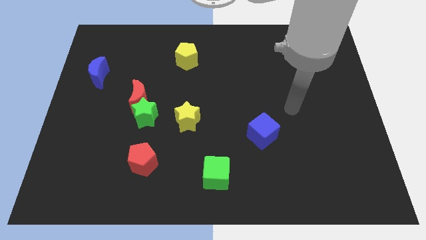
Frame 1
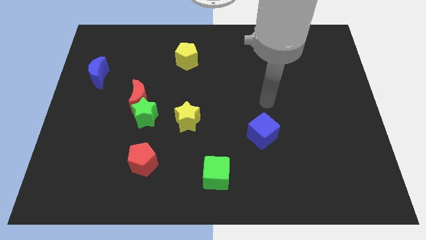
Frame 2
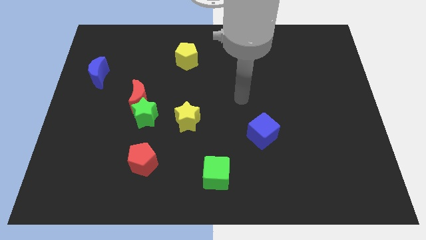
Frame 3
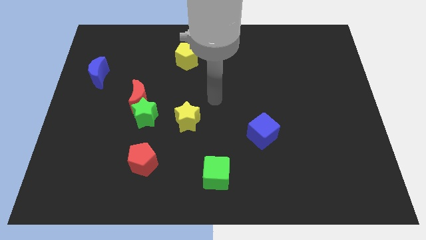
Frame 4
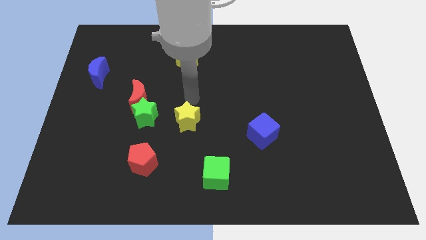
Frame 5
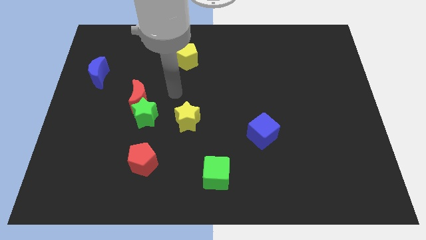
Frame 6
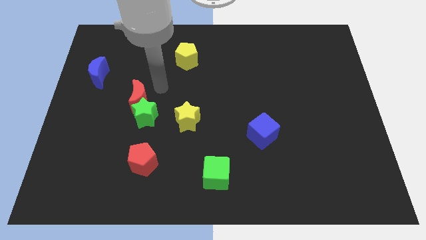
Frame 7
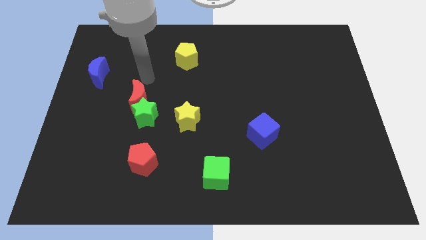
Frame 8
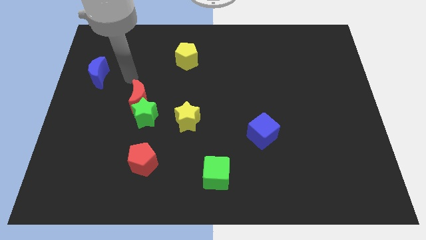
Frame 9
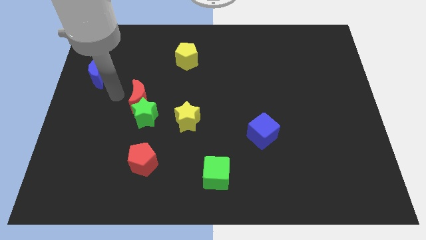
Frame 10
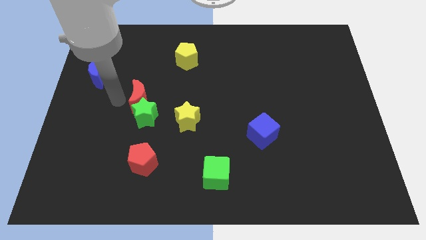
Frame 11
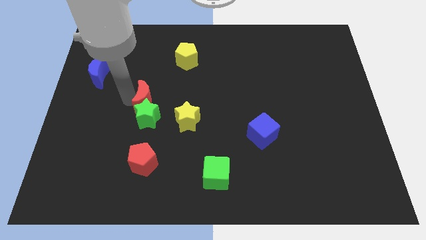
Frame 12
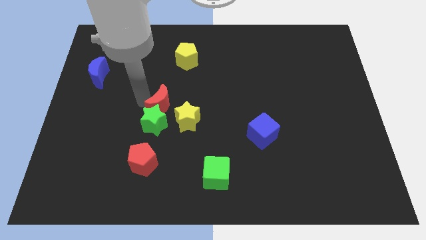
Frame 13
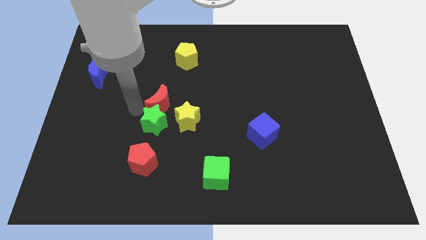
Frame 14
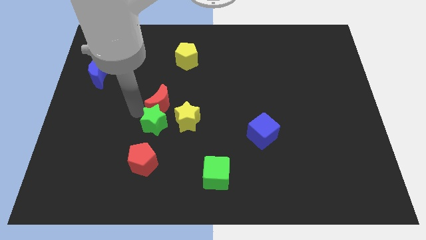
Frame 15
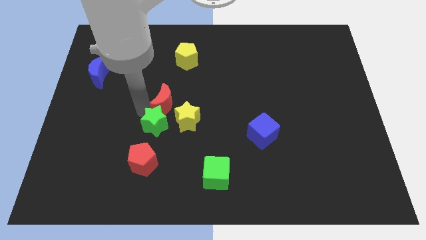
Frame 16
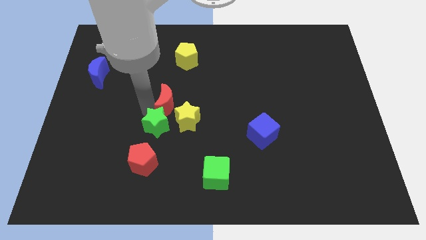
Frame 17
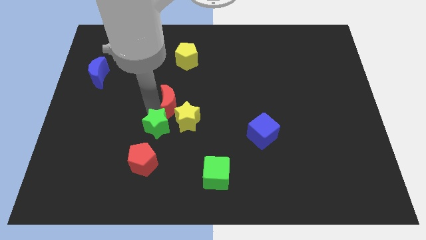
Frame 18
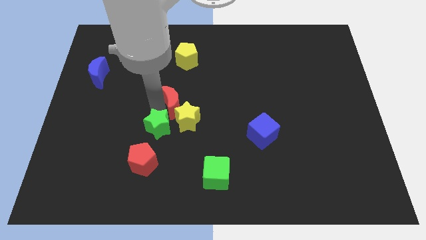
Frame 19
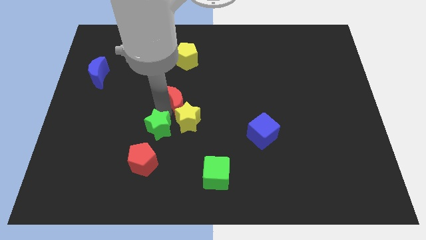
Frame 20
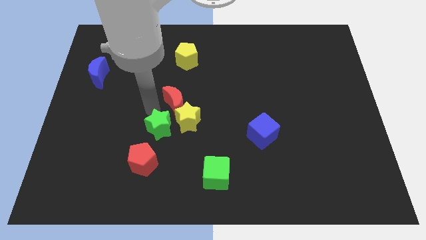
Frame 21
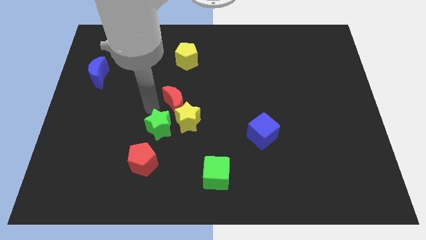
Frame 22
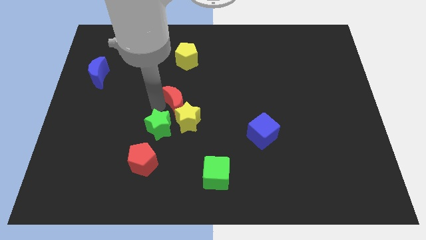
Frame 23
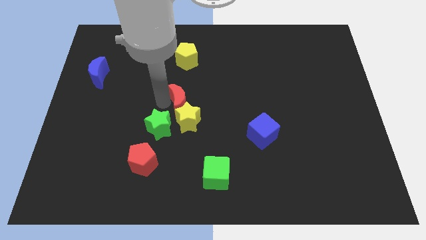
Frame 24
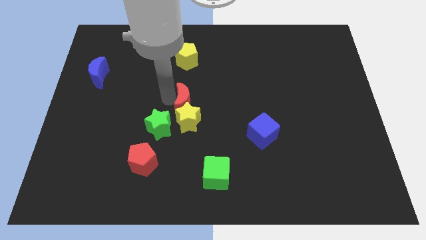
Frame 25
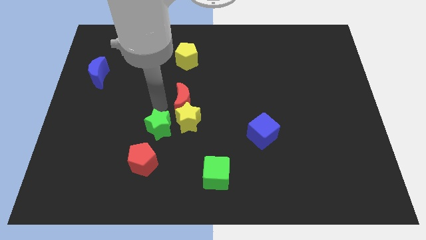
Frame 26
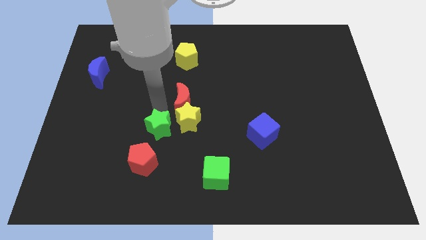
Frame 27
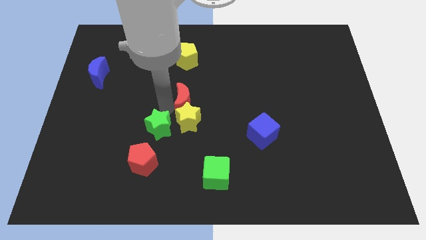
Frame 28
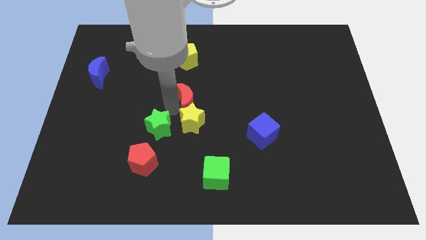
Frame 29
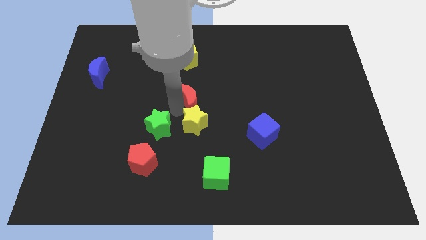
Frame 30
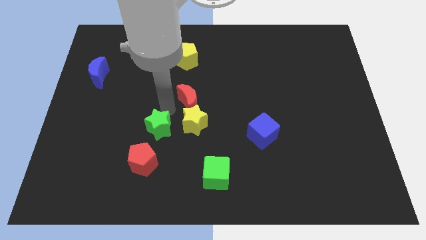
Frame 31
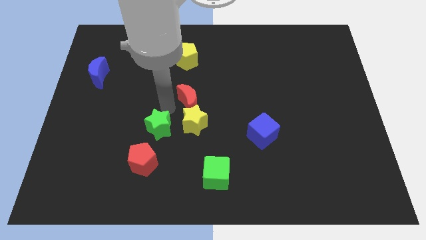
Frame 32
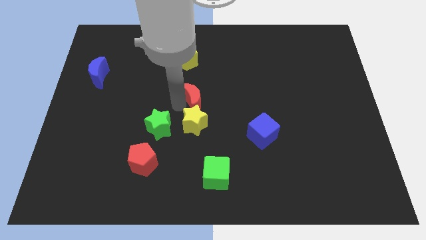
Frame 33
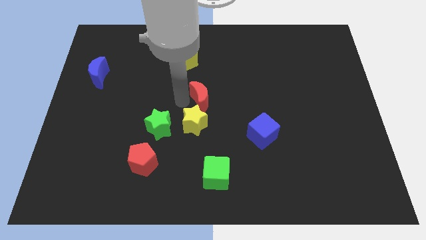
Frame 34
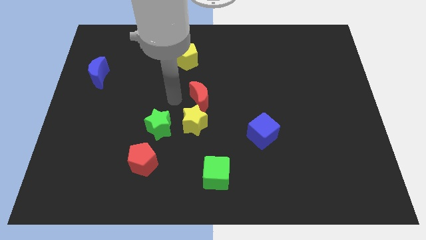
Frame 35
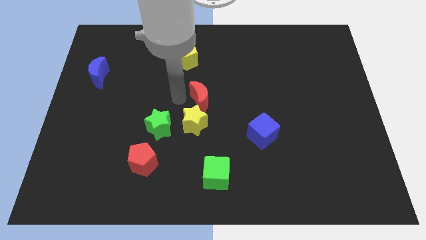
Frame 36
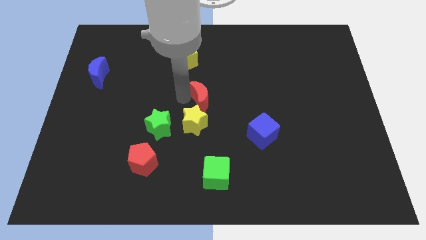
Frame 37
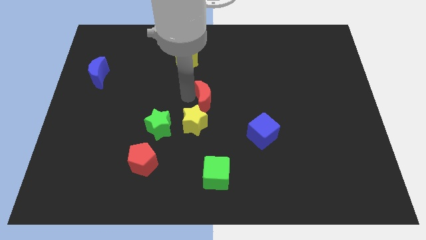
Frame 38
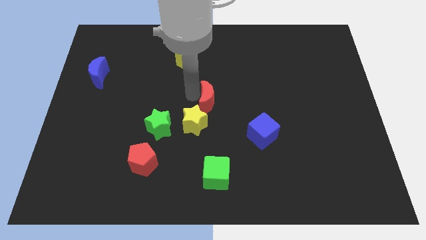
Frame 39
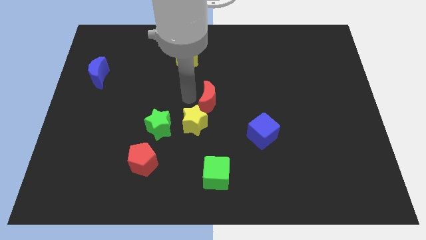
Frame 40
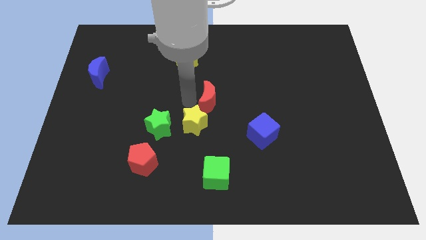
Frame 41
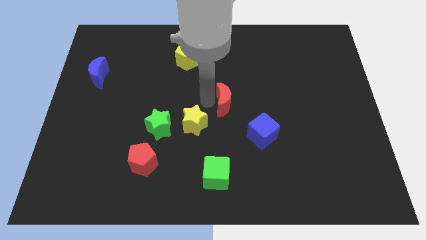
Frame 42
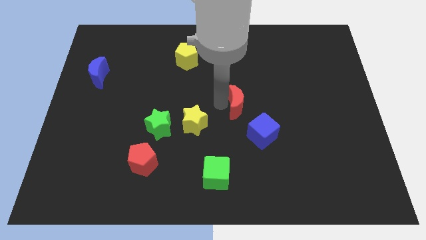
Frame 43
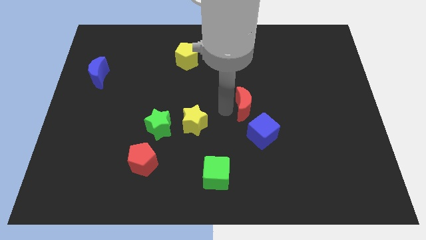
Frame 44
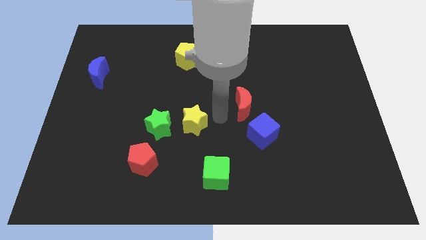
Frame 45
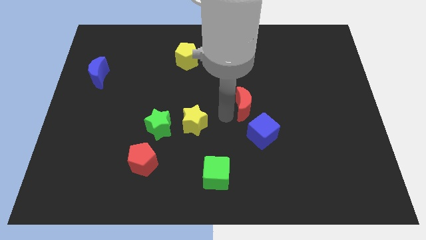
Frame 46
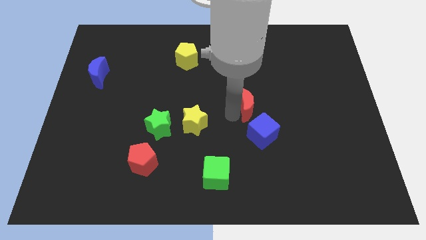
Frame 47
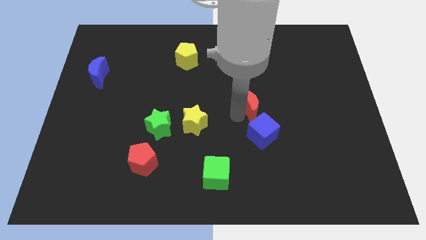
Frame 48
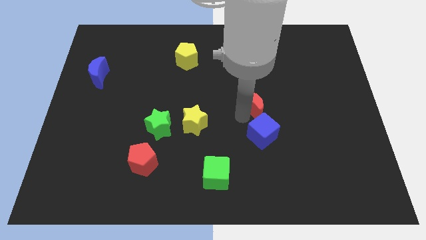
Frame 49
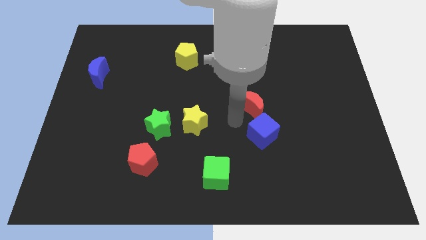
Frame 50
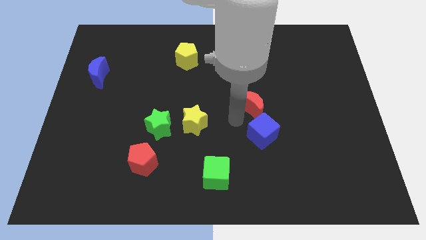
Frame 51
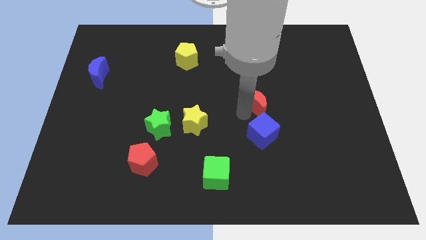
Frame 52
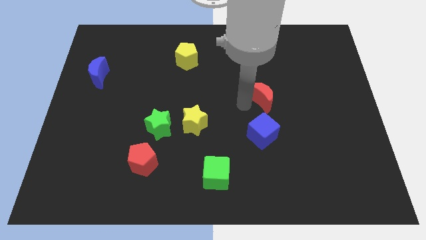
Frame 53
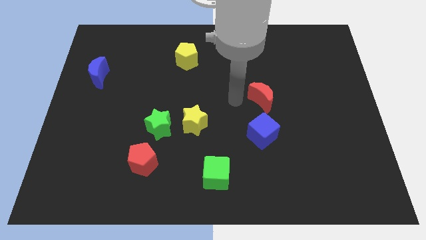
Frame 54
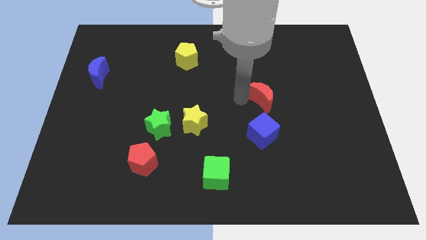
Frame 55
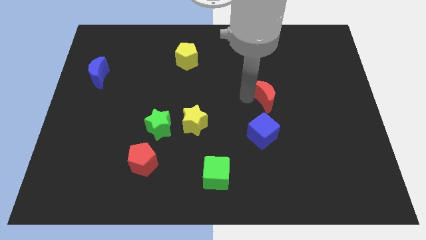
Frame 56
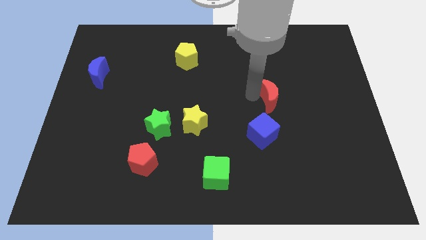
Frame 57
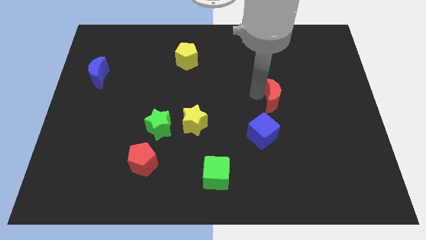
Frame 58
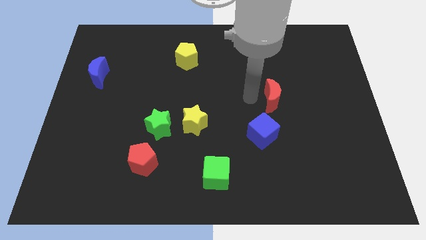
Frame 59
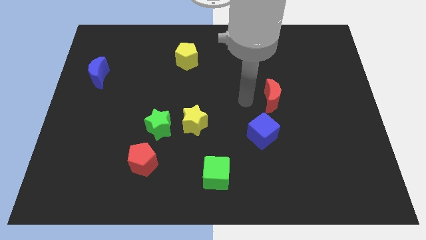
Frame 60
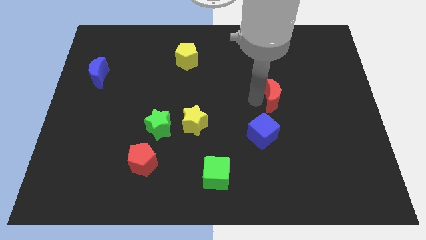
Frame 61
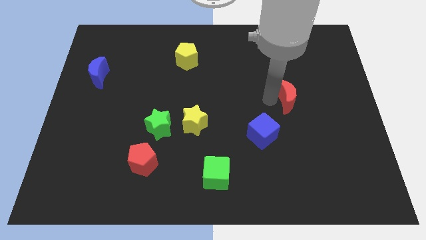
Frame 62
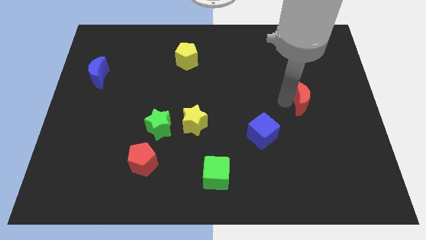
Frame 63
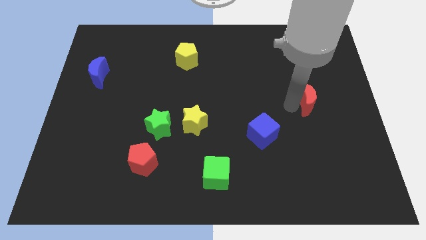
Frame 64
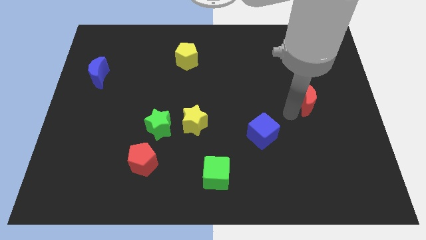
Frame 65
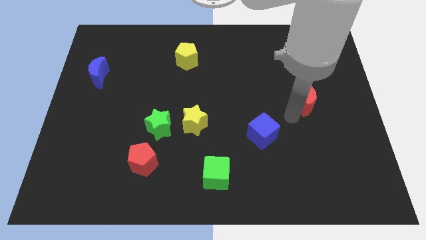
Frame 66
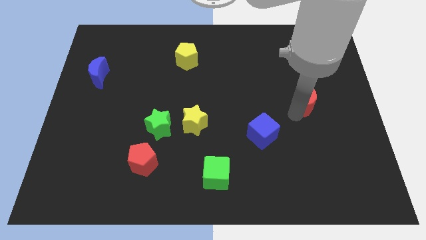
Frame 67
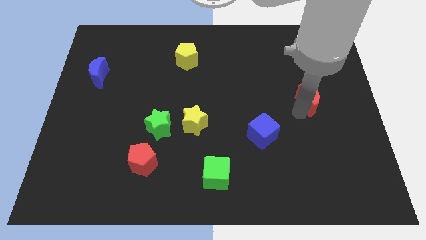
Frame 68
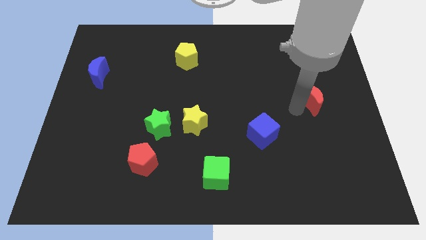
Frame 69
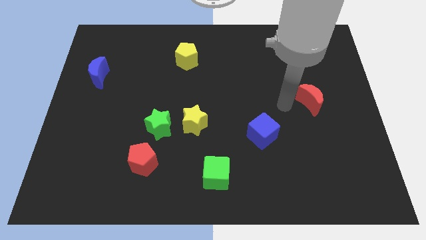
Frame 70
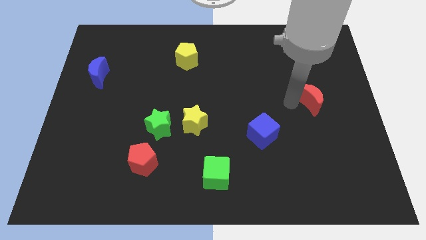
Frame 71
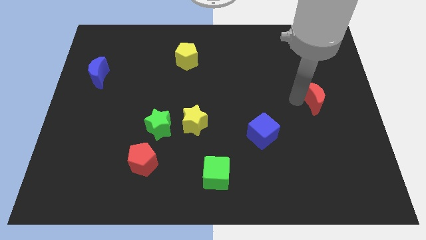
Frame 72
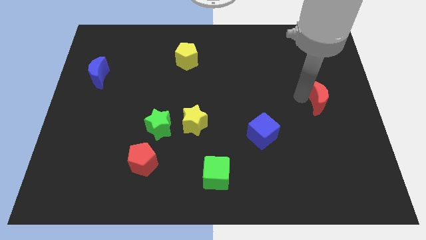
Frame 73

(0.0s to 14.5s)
put the red moon to the center right
